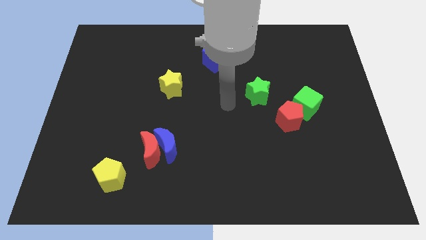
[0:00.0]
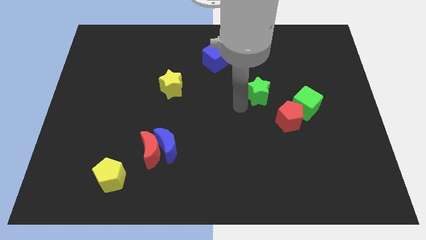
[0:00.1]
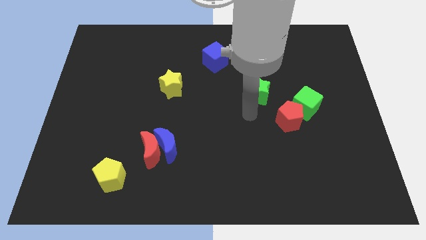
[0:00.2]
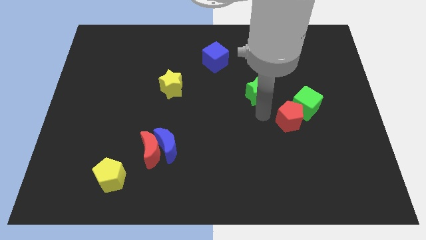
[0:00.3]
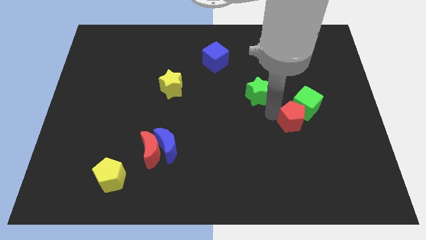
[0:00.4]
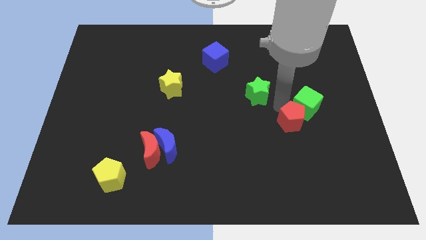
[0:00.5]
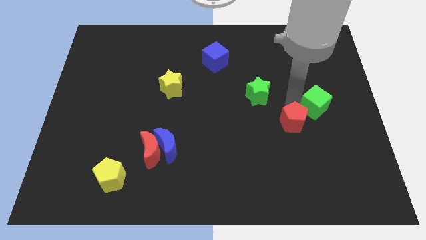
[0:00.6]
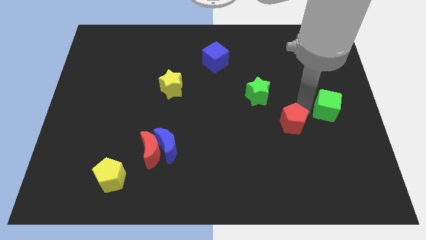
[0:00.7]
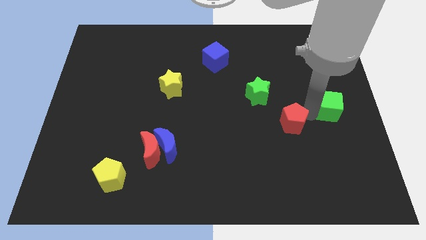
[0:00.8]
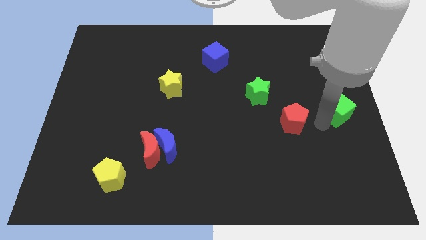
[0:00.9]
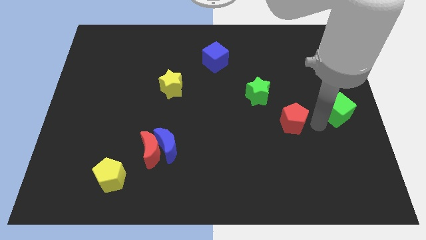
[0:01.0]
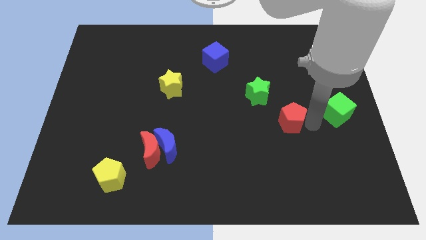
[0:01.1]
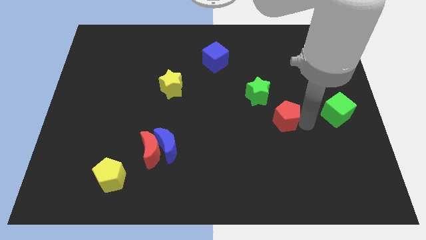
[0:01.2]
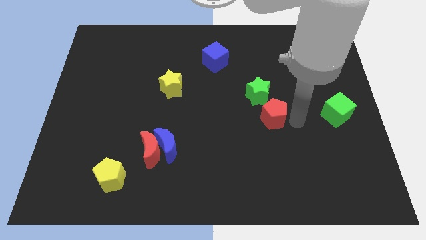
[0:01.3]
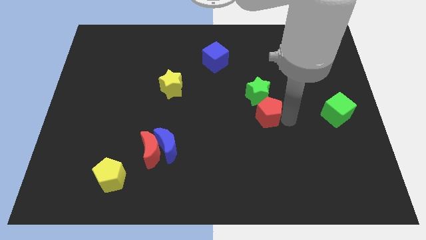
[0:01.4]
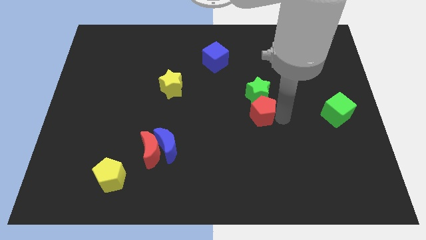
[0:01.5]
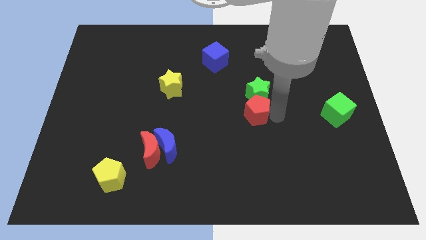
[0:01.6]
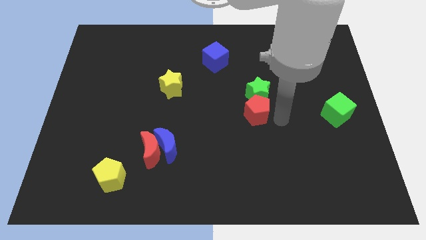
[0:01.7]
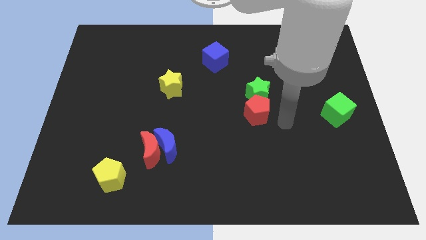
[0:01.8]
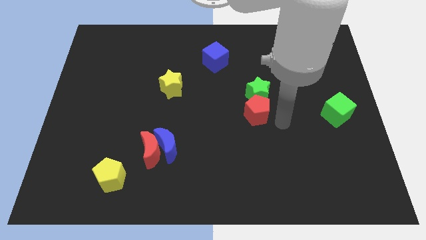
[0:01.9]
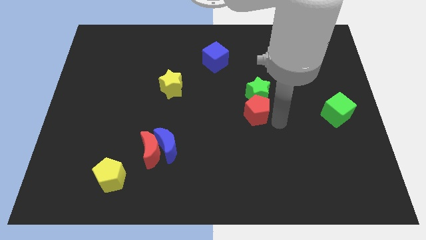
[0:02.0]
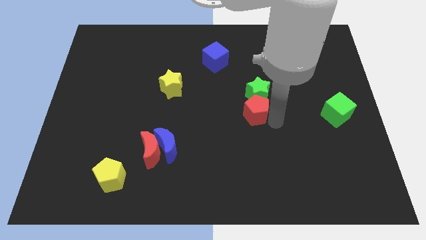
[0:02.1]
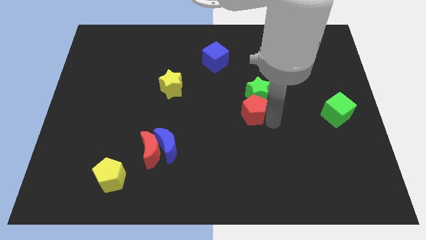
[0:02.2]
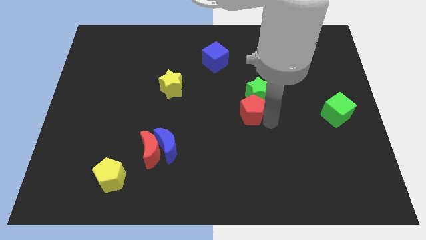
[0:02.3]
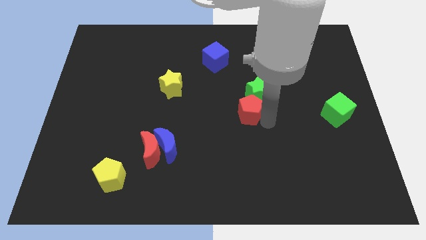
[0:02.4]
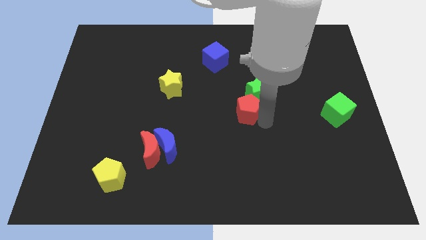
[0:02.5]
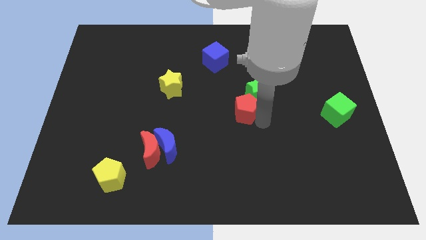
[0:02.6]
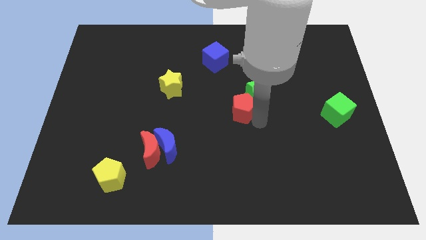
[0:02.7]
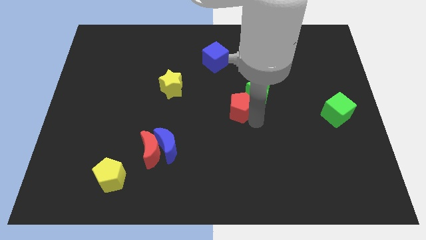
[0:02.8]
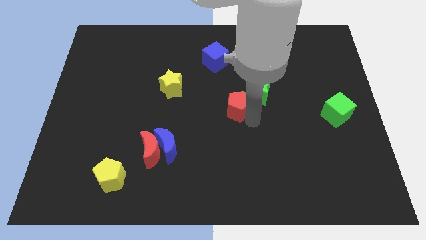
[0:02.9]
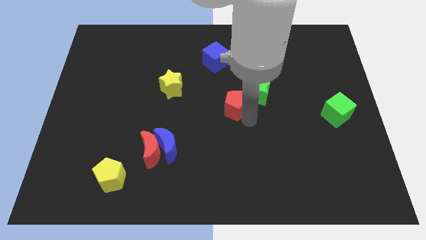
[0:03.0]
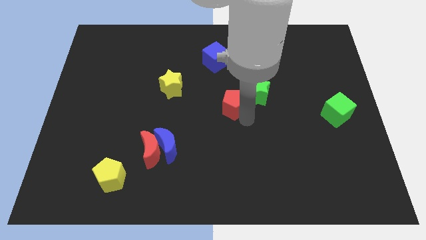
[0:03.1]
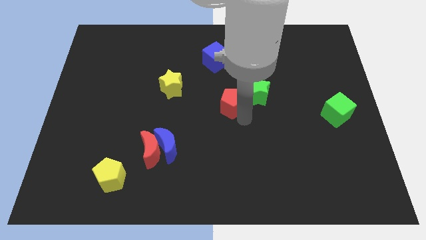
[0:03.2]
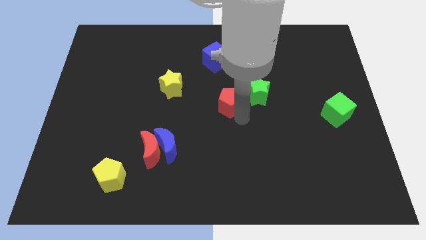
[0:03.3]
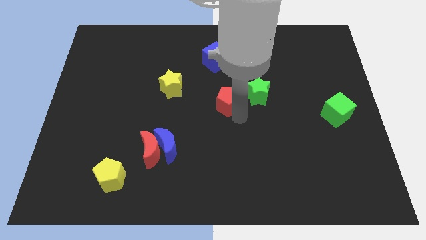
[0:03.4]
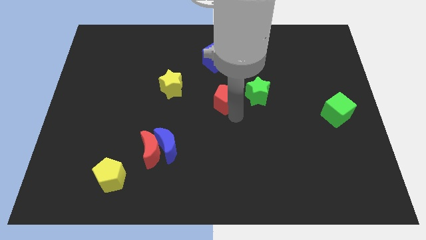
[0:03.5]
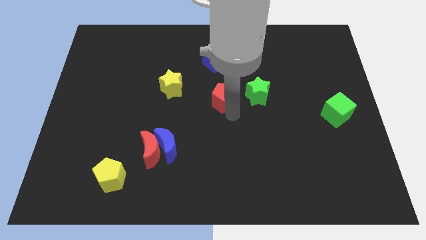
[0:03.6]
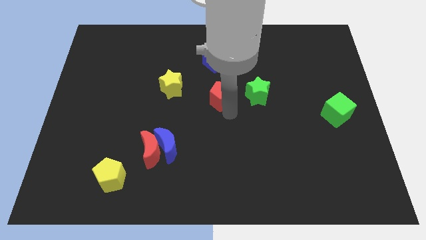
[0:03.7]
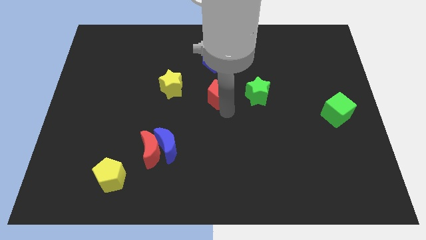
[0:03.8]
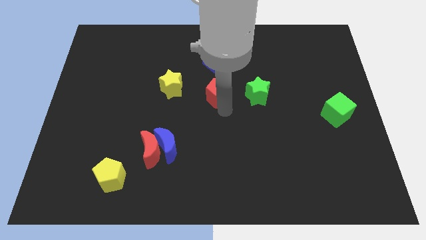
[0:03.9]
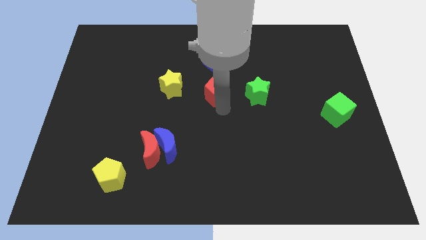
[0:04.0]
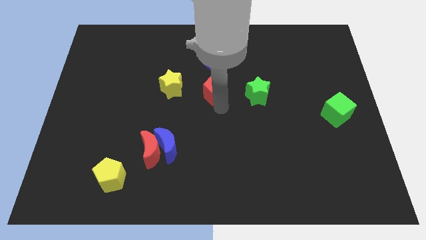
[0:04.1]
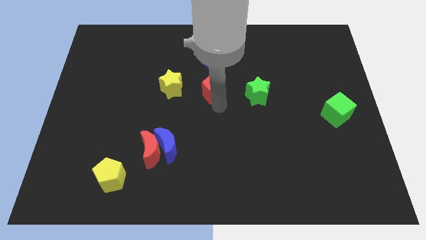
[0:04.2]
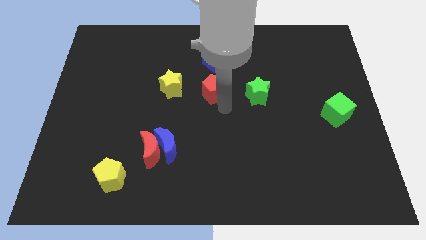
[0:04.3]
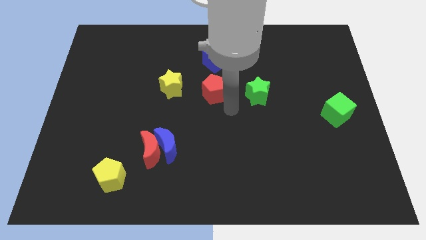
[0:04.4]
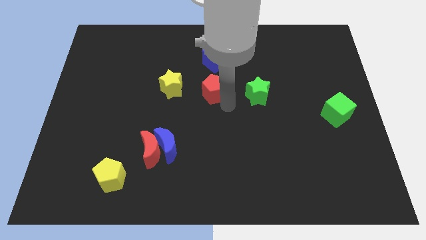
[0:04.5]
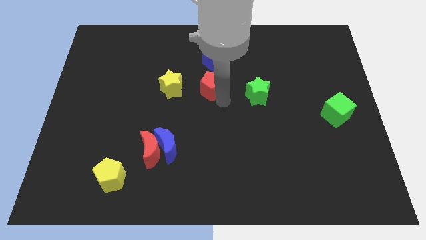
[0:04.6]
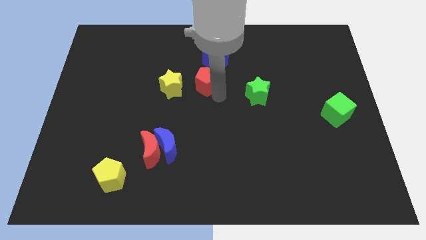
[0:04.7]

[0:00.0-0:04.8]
put the red pentagon diagonally down and to the left of the blue cube

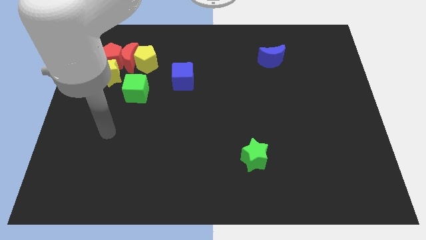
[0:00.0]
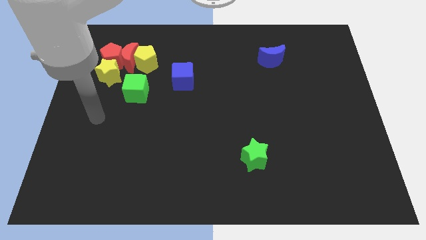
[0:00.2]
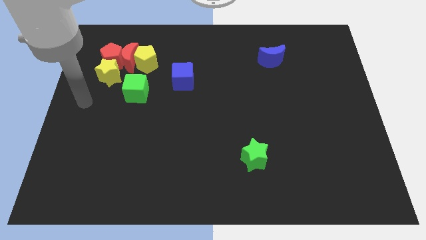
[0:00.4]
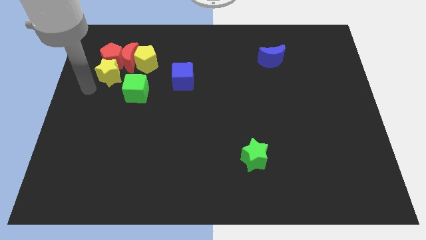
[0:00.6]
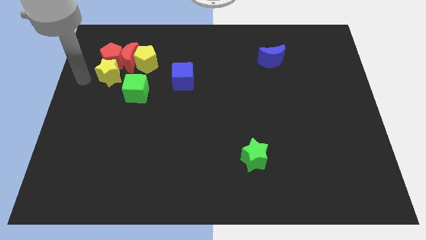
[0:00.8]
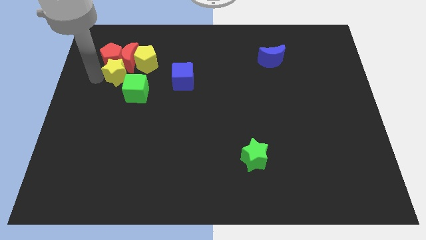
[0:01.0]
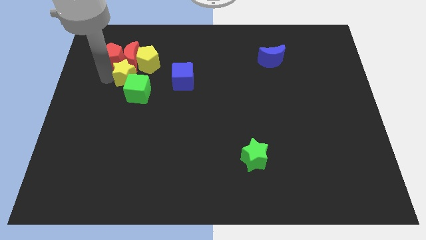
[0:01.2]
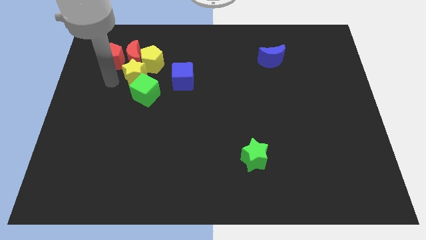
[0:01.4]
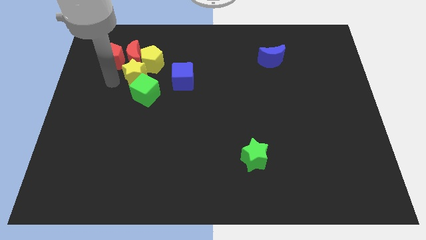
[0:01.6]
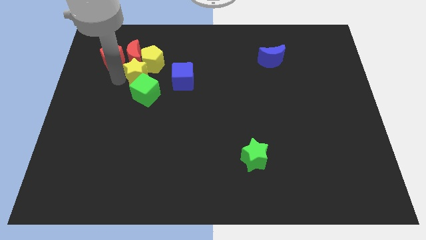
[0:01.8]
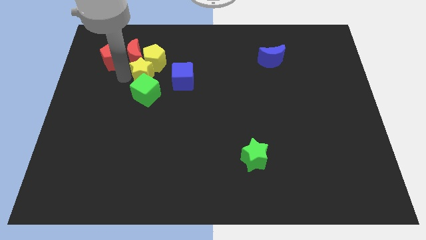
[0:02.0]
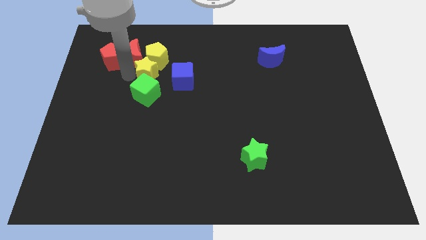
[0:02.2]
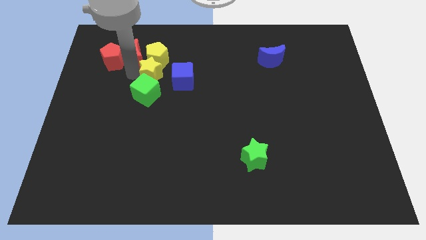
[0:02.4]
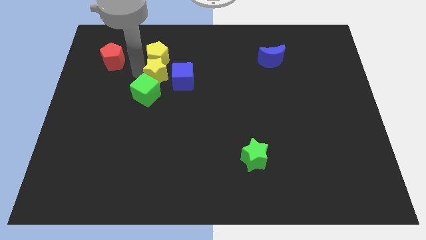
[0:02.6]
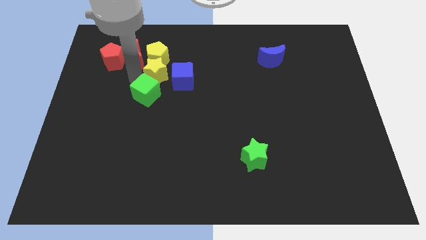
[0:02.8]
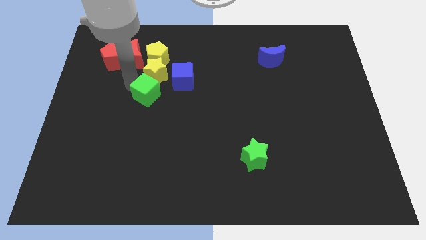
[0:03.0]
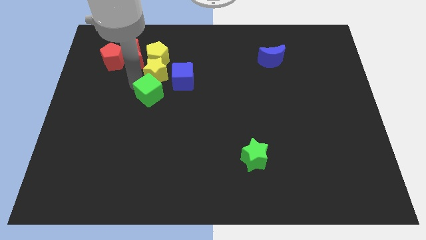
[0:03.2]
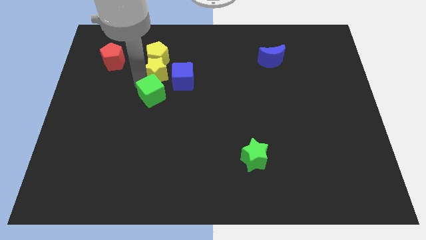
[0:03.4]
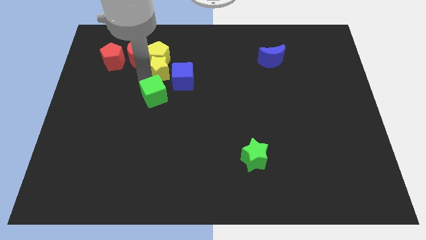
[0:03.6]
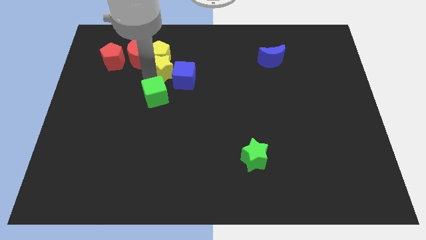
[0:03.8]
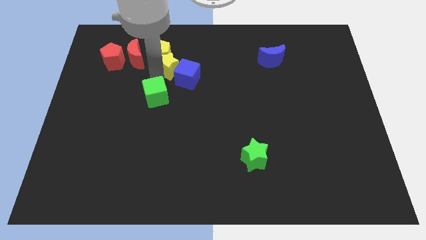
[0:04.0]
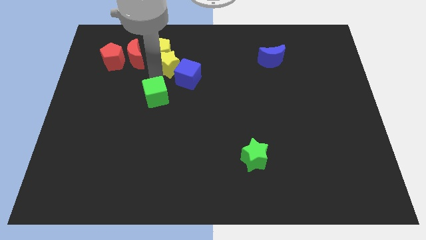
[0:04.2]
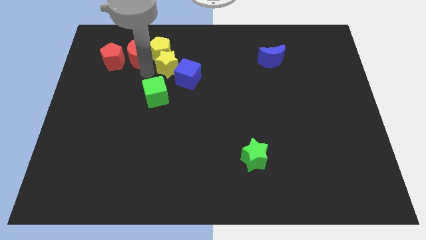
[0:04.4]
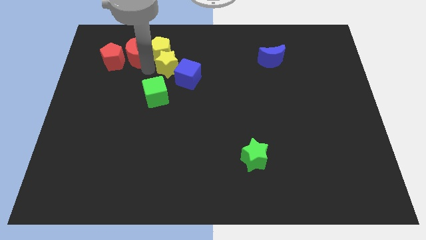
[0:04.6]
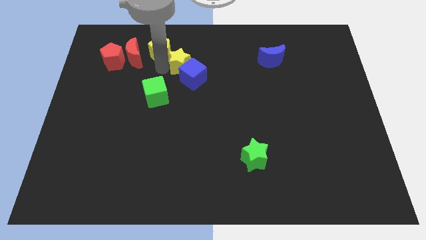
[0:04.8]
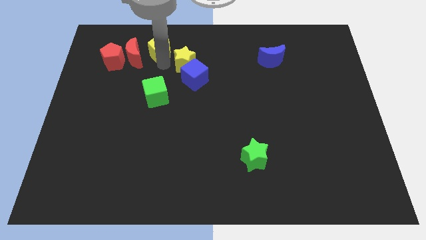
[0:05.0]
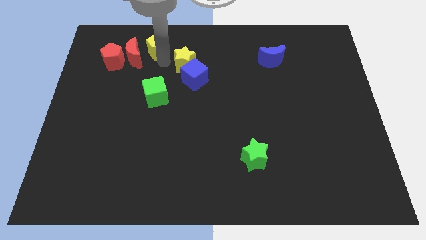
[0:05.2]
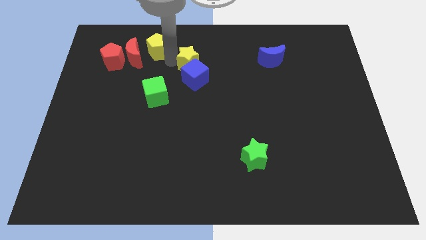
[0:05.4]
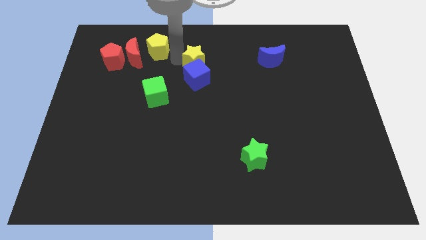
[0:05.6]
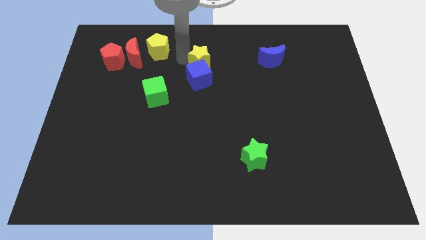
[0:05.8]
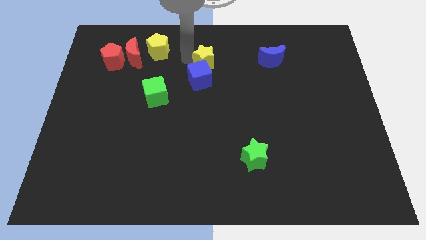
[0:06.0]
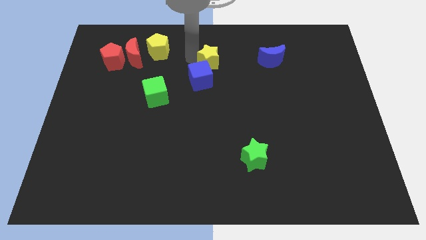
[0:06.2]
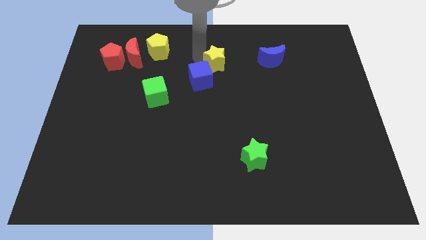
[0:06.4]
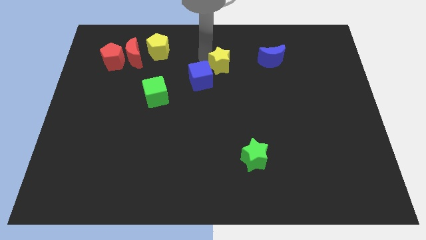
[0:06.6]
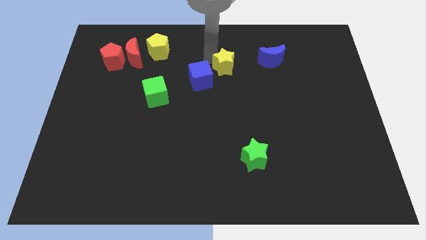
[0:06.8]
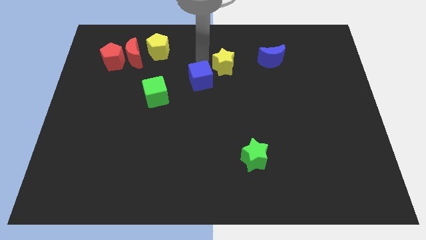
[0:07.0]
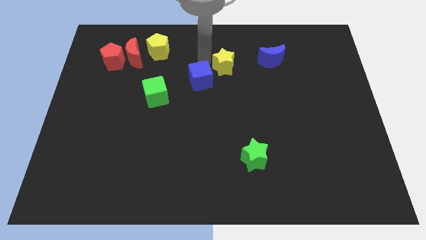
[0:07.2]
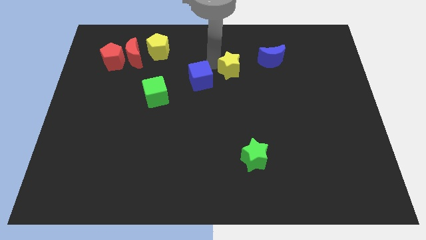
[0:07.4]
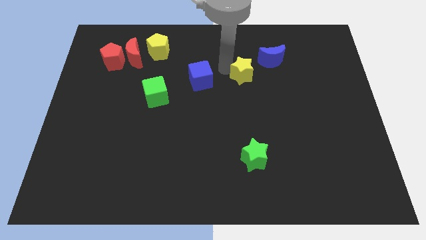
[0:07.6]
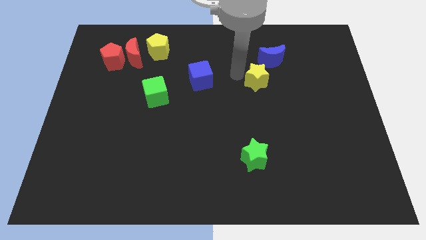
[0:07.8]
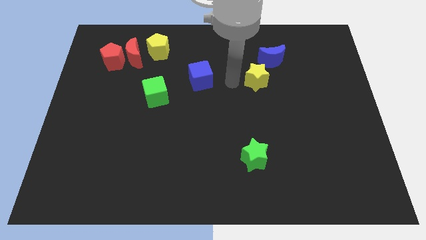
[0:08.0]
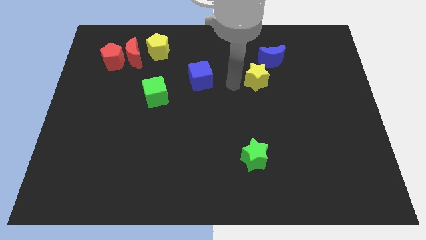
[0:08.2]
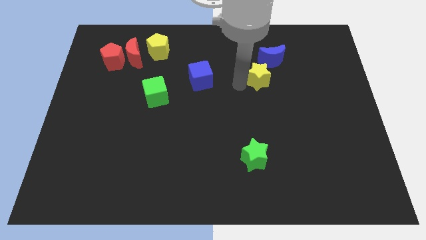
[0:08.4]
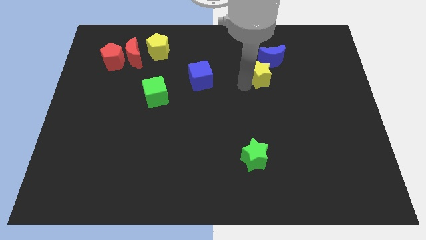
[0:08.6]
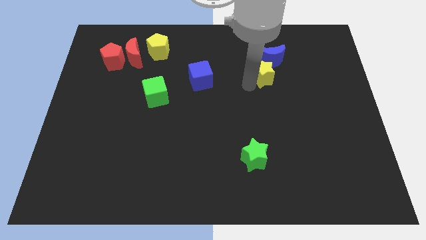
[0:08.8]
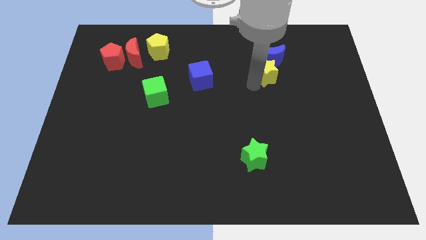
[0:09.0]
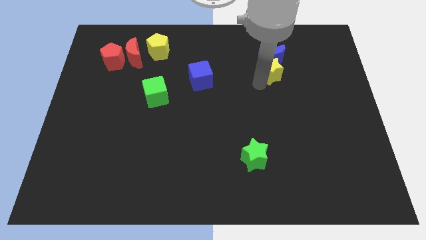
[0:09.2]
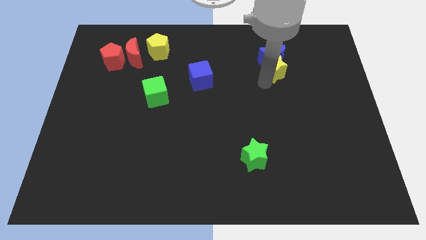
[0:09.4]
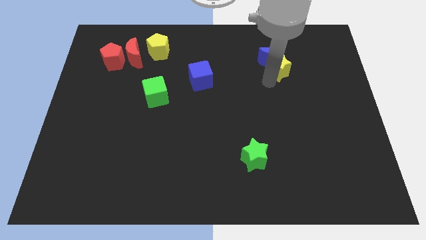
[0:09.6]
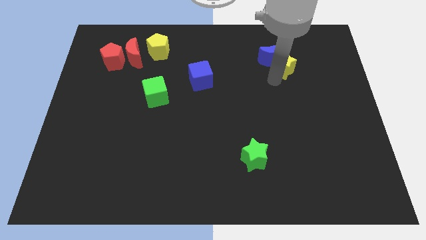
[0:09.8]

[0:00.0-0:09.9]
move the yellow star just right of the blue moon
